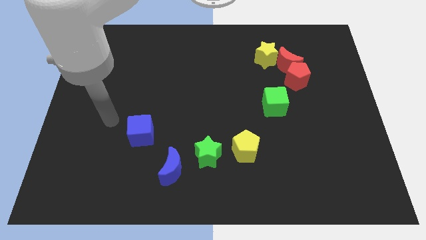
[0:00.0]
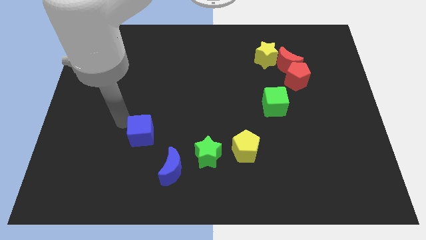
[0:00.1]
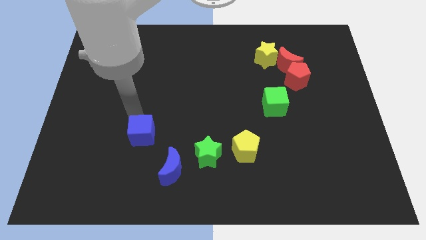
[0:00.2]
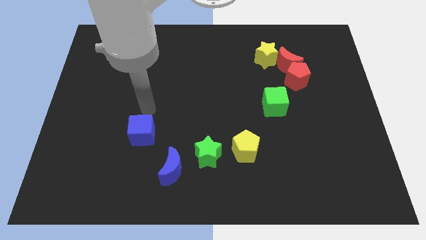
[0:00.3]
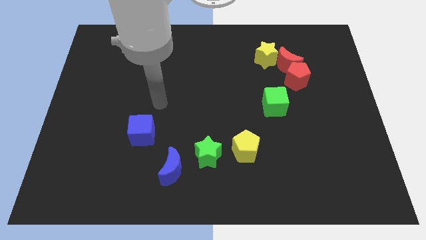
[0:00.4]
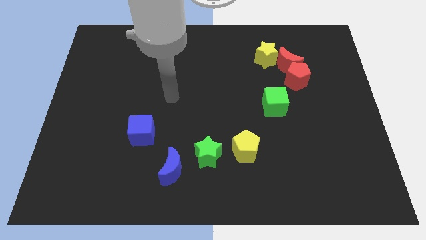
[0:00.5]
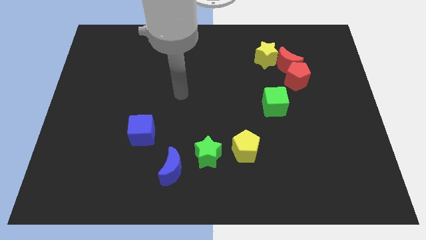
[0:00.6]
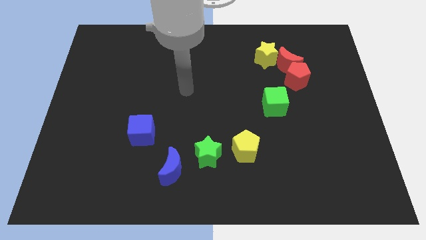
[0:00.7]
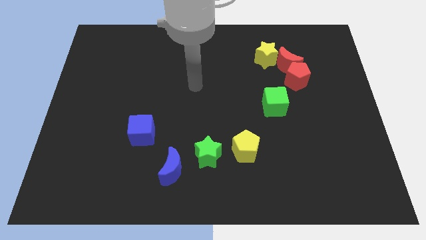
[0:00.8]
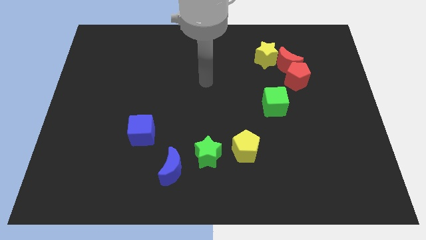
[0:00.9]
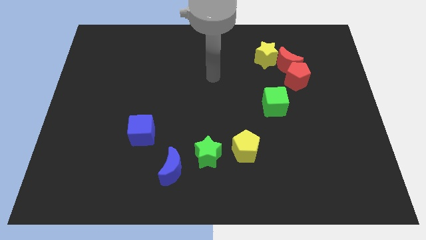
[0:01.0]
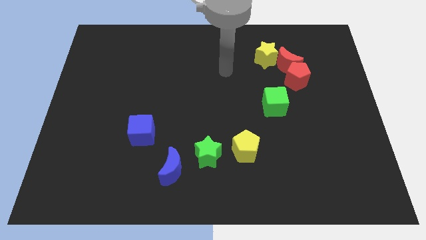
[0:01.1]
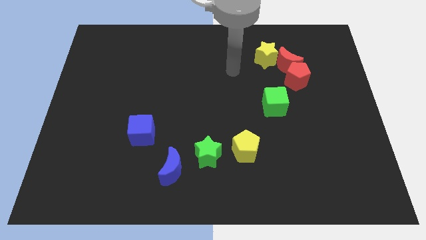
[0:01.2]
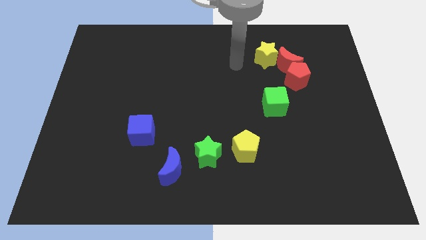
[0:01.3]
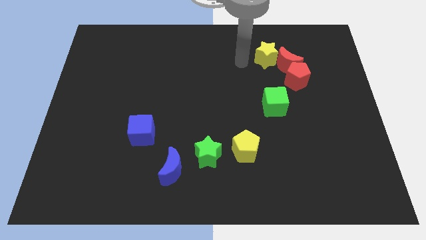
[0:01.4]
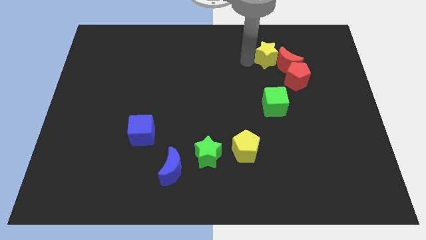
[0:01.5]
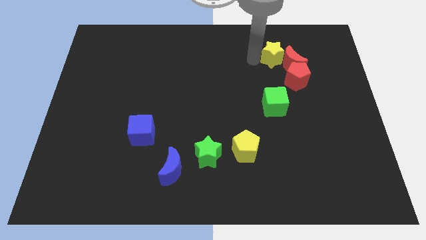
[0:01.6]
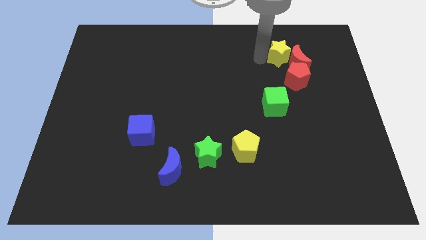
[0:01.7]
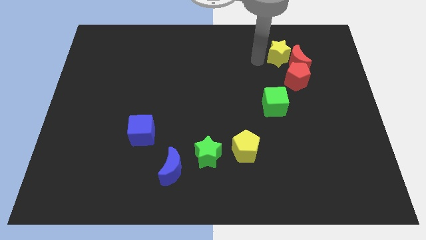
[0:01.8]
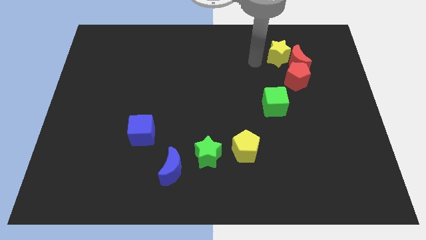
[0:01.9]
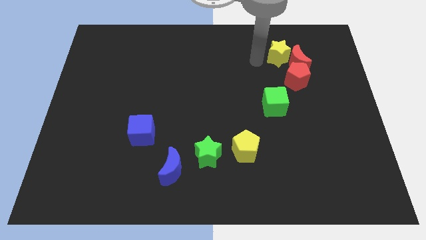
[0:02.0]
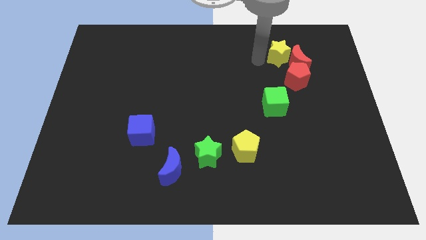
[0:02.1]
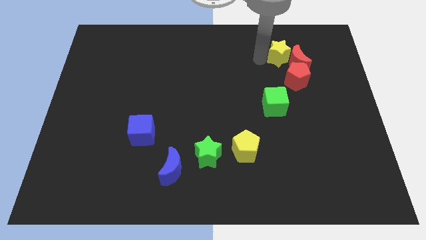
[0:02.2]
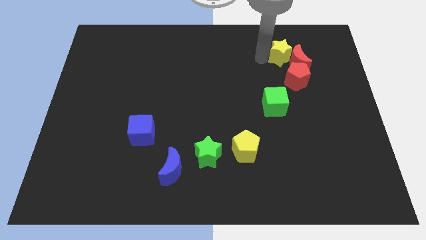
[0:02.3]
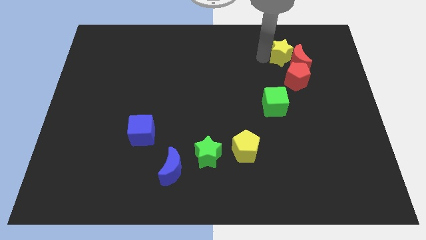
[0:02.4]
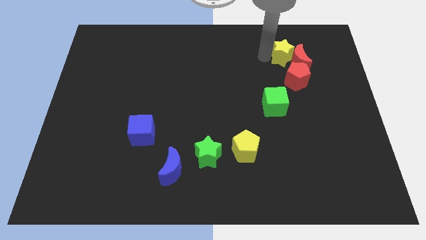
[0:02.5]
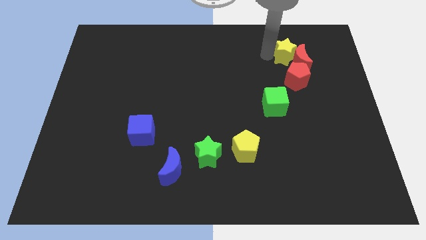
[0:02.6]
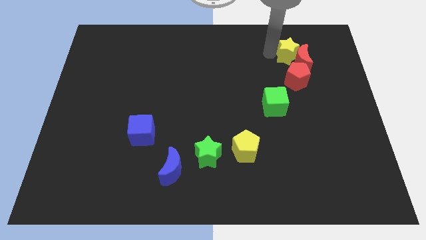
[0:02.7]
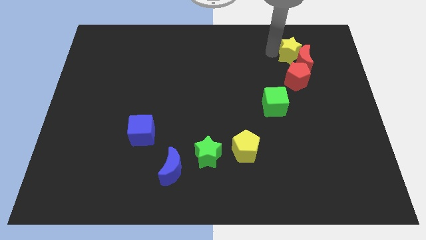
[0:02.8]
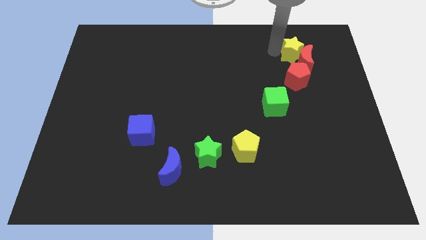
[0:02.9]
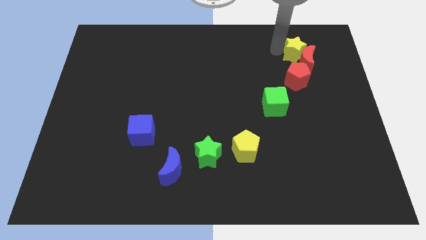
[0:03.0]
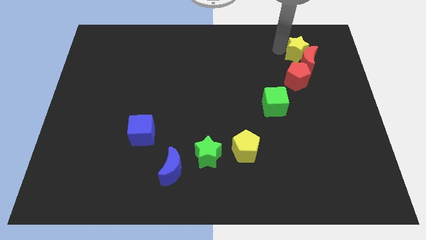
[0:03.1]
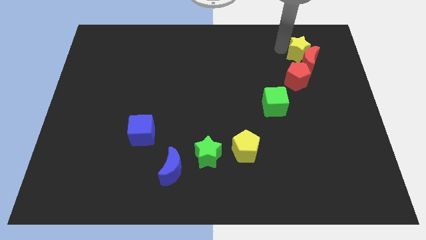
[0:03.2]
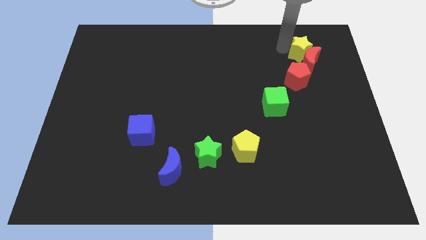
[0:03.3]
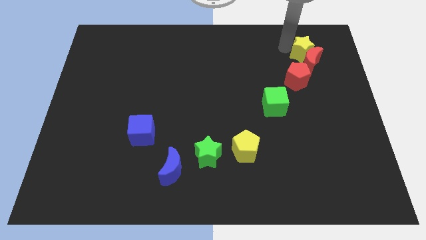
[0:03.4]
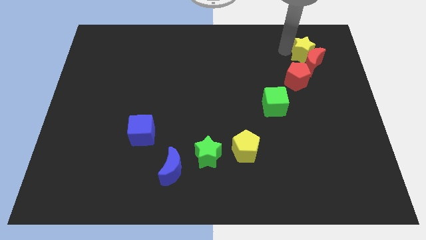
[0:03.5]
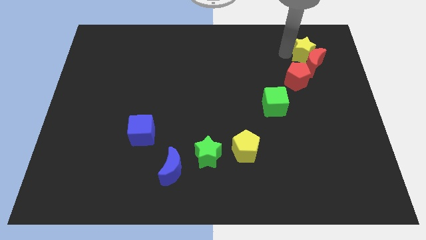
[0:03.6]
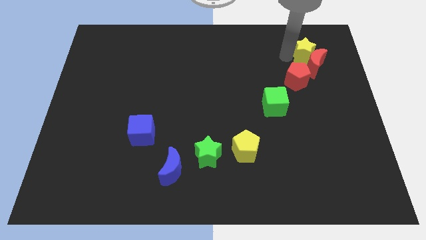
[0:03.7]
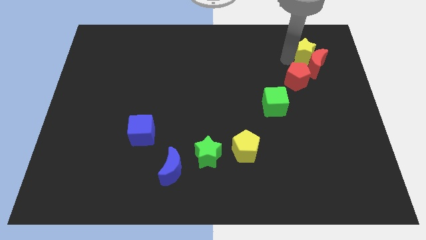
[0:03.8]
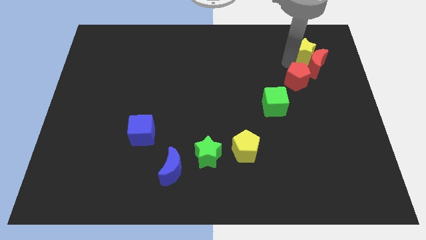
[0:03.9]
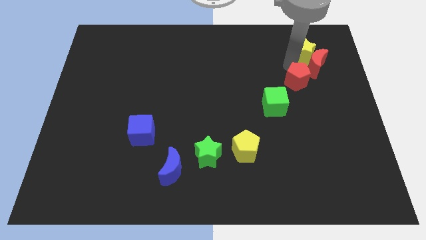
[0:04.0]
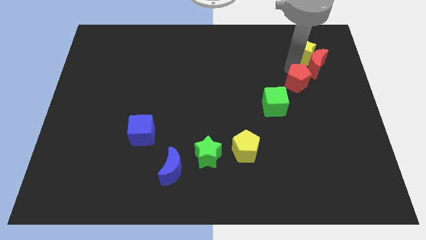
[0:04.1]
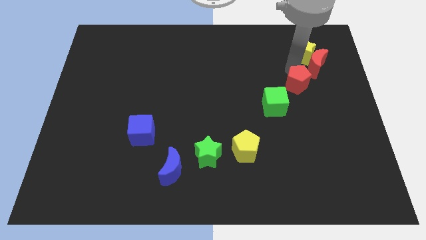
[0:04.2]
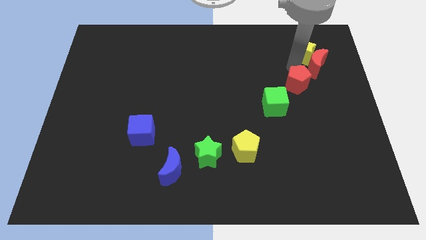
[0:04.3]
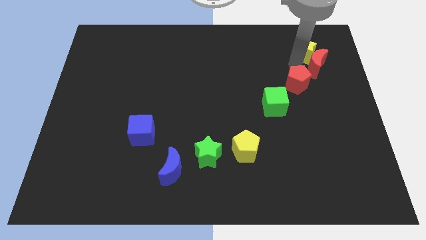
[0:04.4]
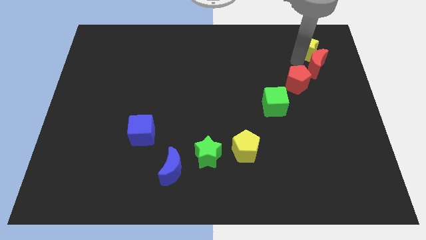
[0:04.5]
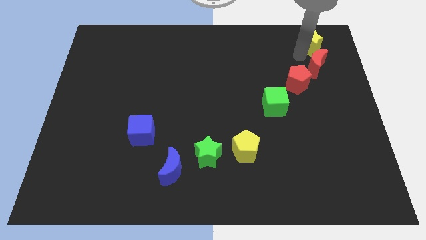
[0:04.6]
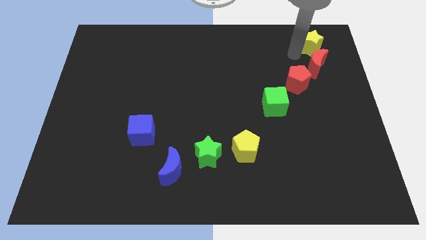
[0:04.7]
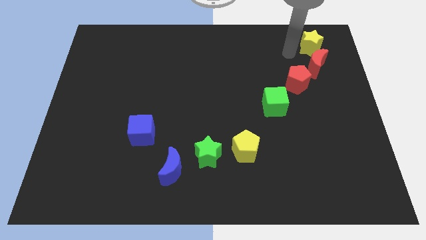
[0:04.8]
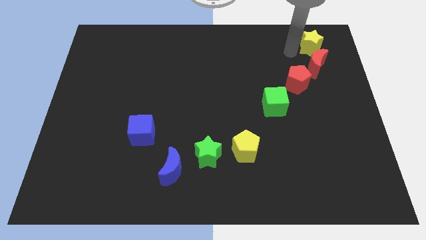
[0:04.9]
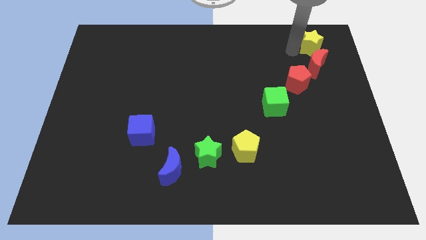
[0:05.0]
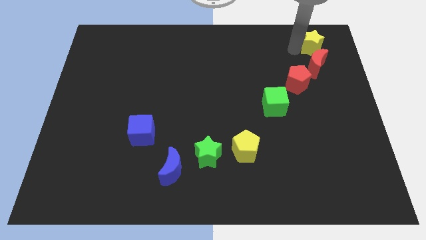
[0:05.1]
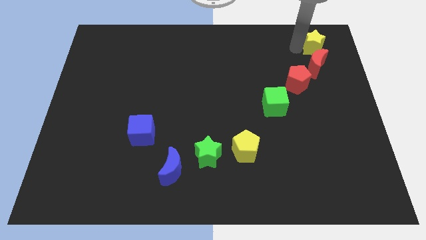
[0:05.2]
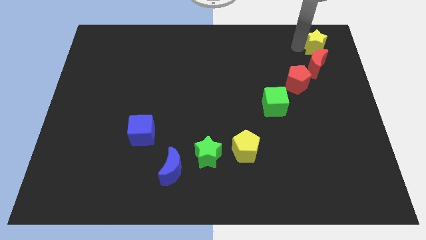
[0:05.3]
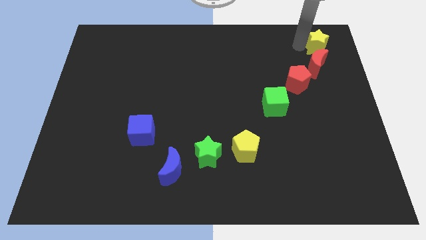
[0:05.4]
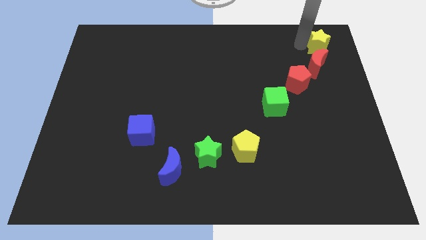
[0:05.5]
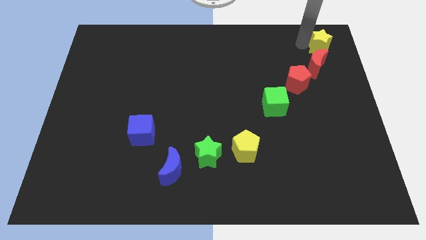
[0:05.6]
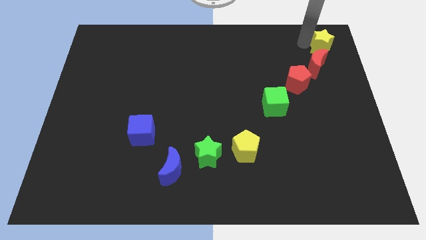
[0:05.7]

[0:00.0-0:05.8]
move the yellow star to the top right corner
